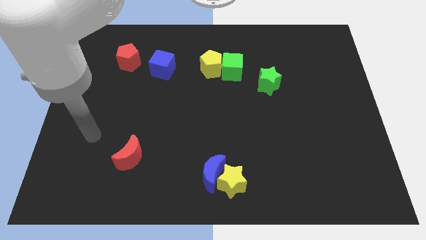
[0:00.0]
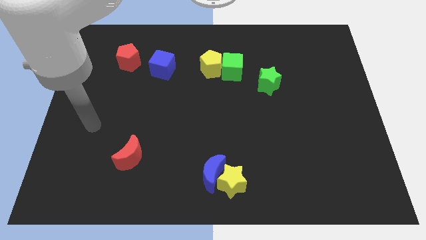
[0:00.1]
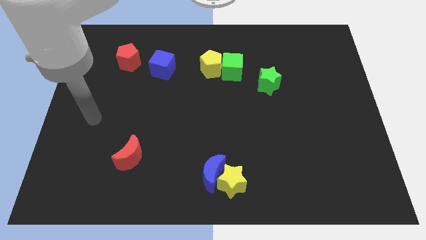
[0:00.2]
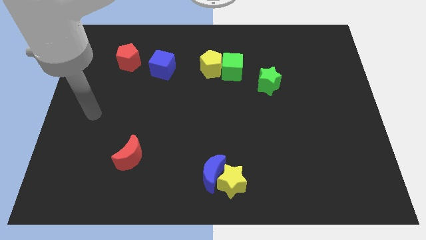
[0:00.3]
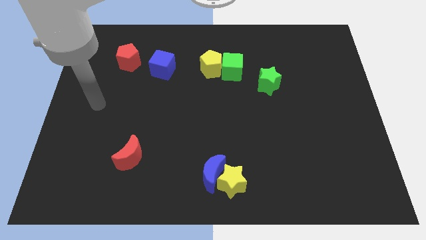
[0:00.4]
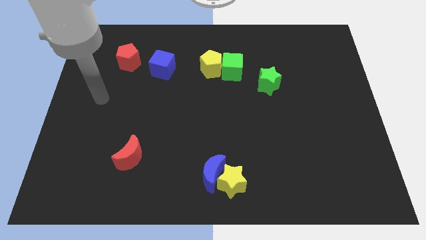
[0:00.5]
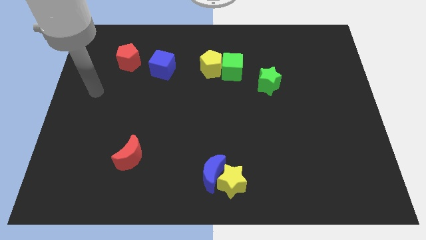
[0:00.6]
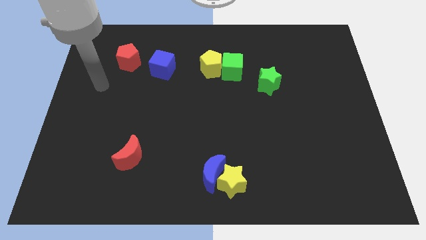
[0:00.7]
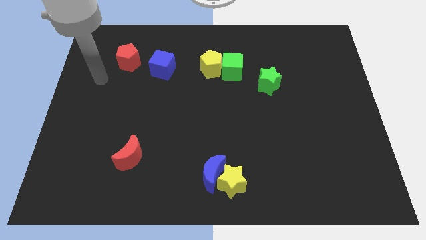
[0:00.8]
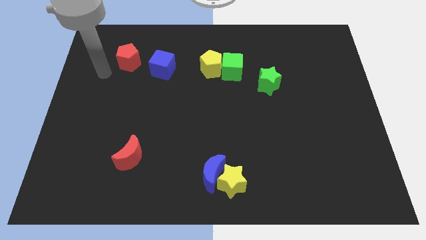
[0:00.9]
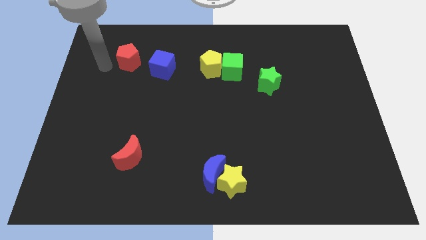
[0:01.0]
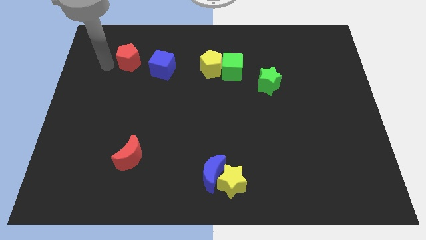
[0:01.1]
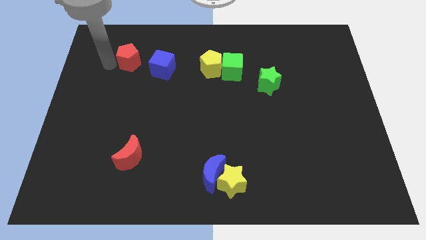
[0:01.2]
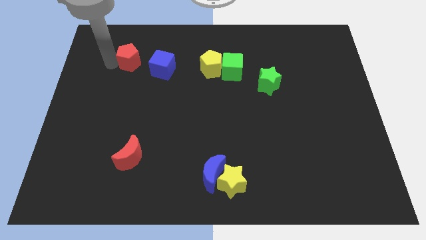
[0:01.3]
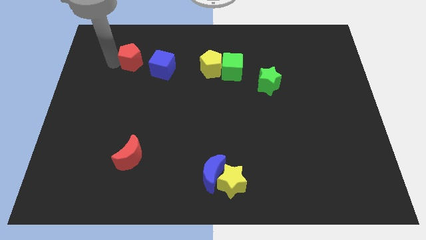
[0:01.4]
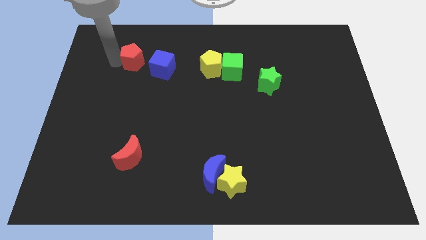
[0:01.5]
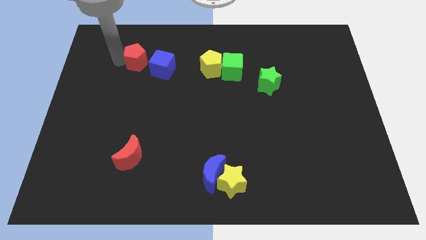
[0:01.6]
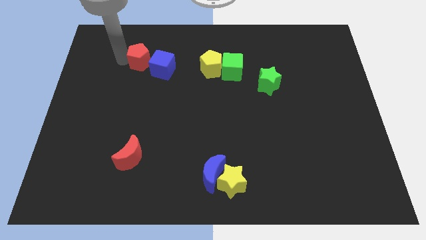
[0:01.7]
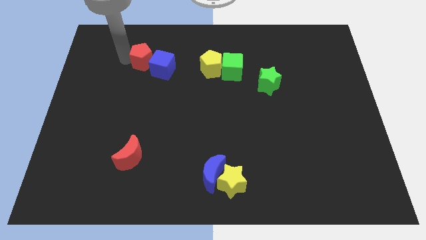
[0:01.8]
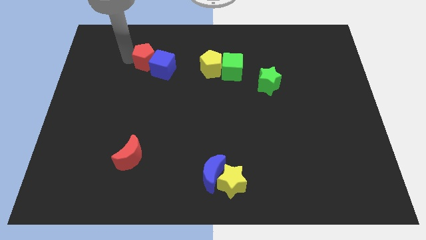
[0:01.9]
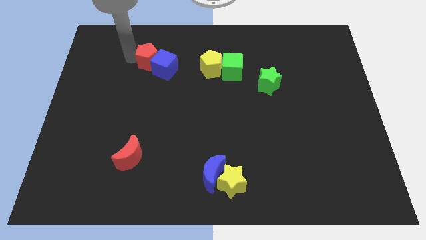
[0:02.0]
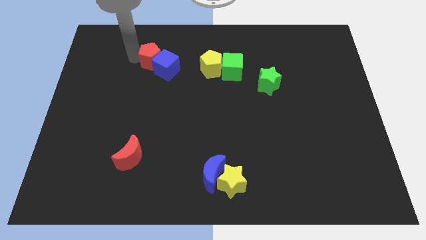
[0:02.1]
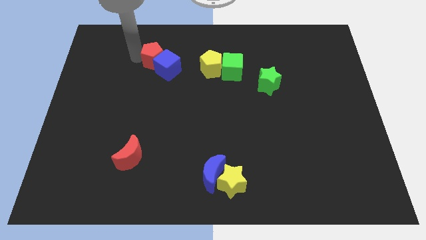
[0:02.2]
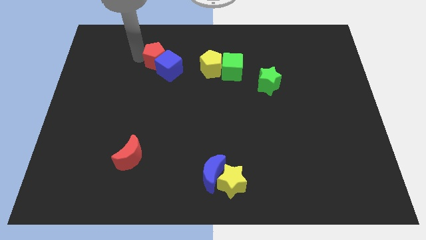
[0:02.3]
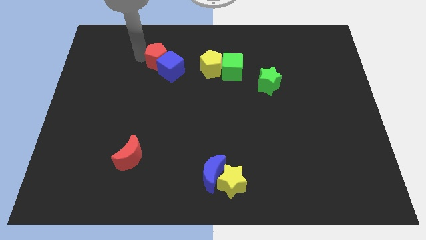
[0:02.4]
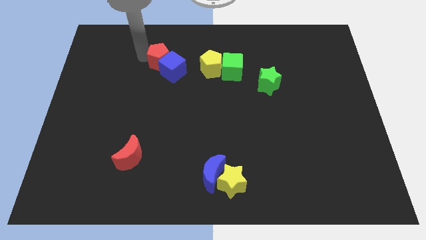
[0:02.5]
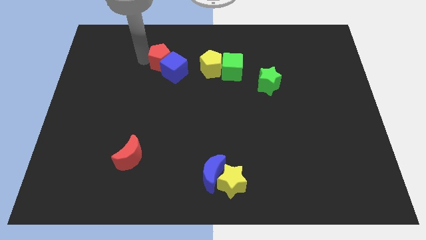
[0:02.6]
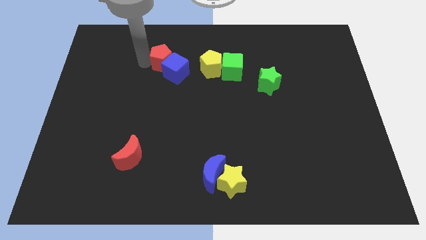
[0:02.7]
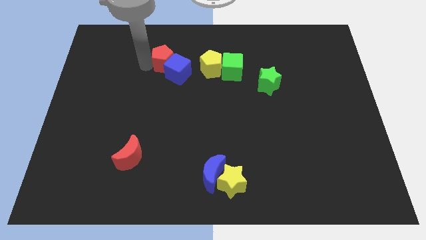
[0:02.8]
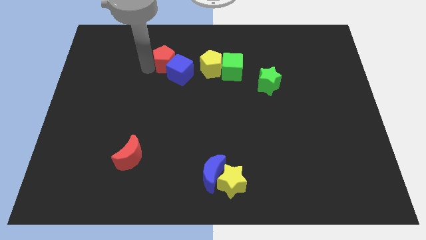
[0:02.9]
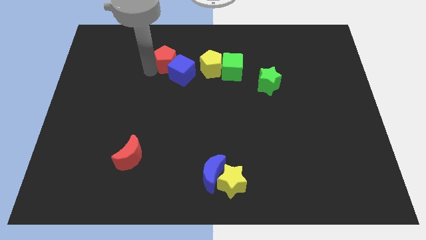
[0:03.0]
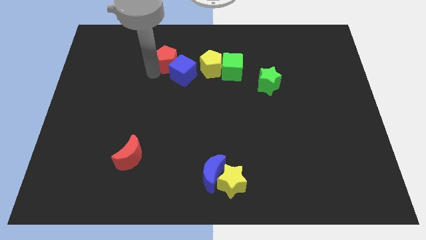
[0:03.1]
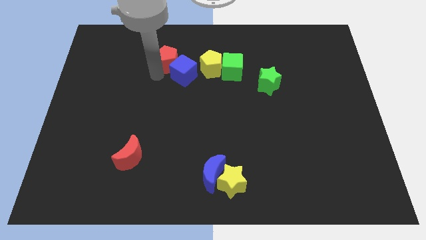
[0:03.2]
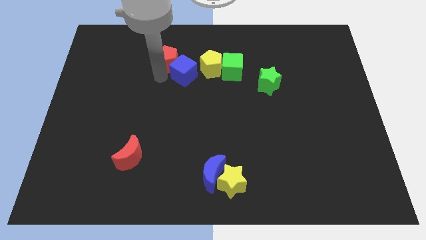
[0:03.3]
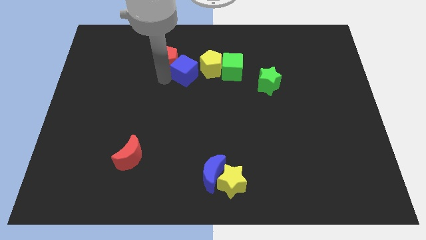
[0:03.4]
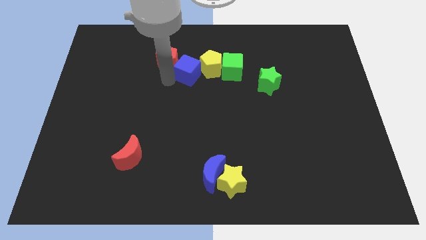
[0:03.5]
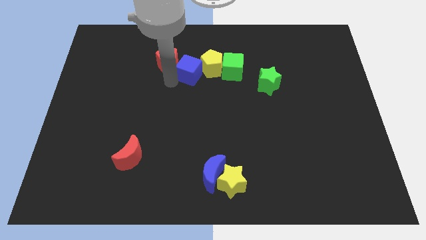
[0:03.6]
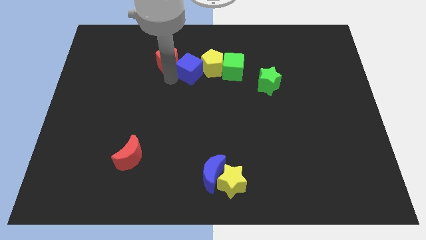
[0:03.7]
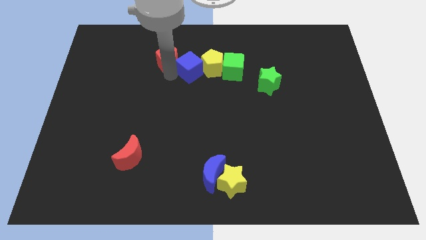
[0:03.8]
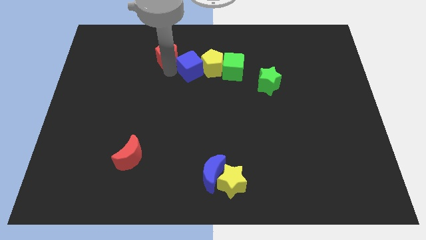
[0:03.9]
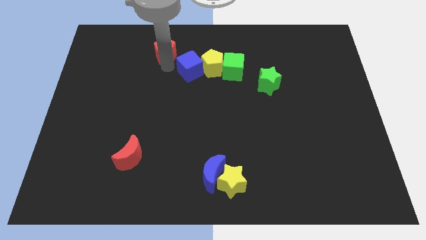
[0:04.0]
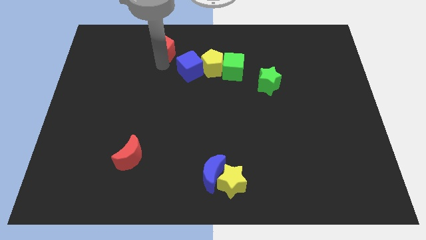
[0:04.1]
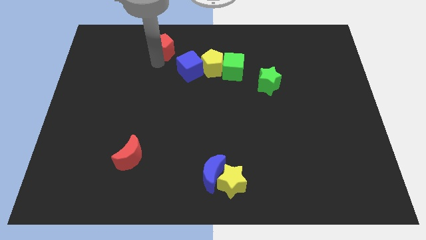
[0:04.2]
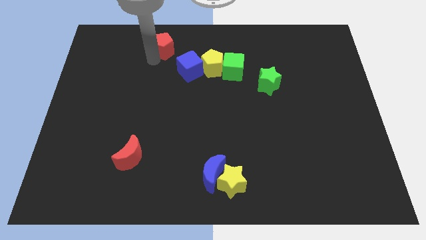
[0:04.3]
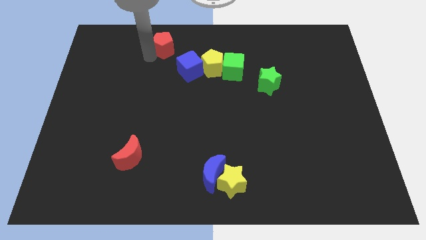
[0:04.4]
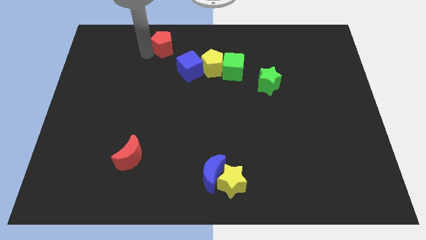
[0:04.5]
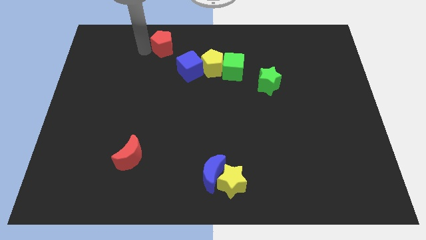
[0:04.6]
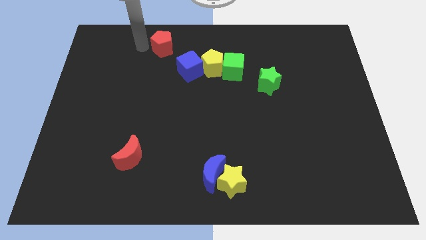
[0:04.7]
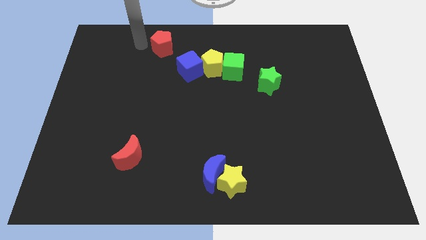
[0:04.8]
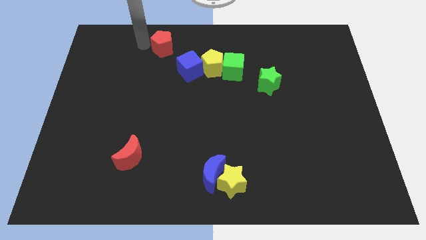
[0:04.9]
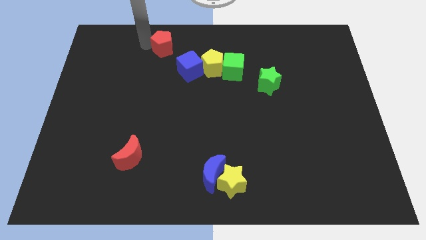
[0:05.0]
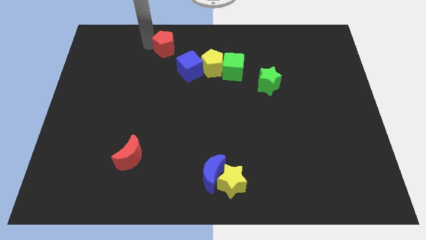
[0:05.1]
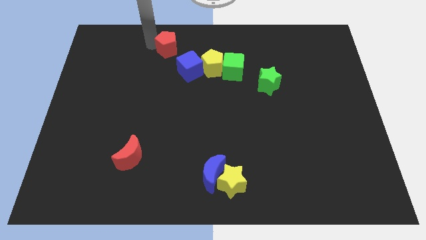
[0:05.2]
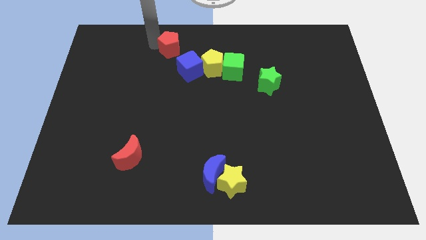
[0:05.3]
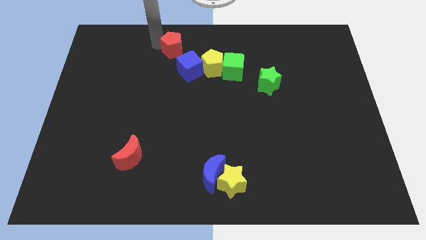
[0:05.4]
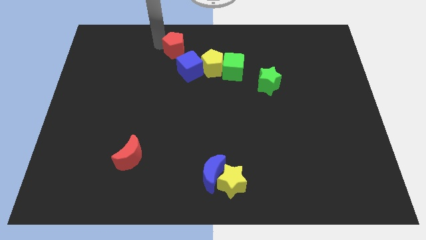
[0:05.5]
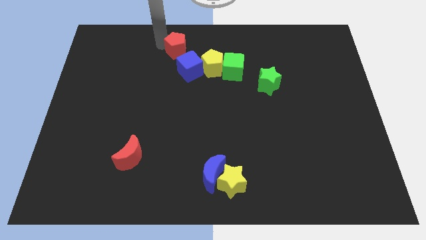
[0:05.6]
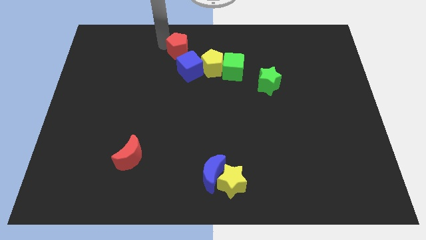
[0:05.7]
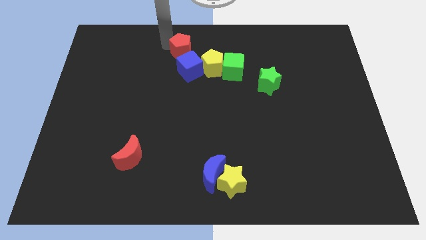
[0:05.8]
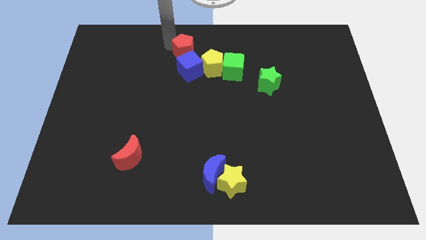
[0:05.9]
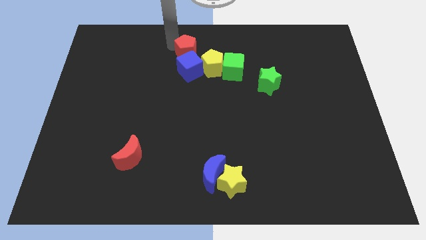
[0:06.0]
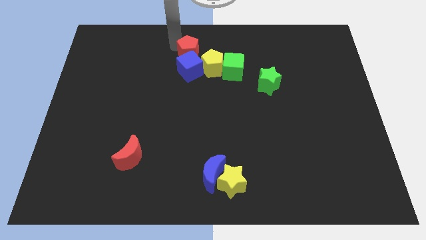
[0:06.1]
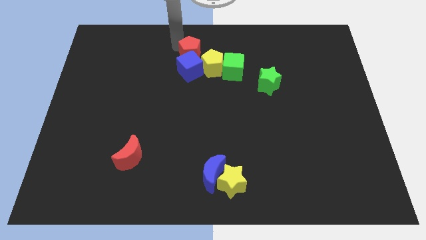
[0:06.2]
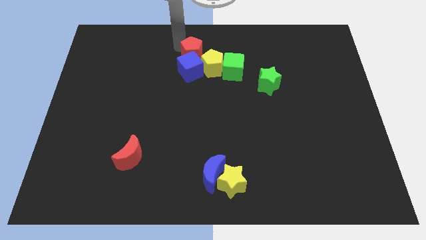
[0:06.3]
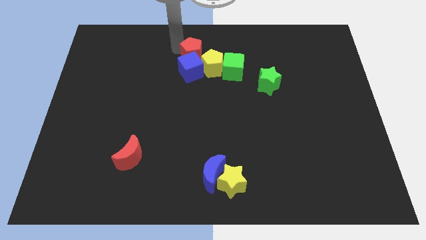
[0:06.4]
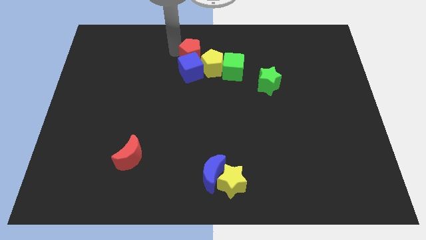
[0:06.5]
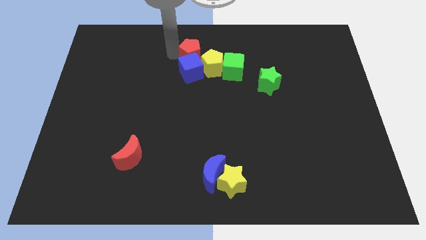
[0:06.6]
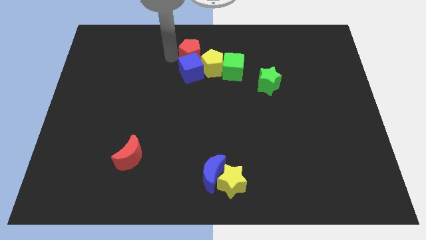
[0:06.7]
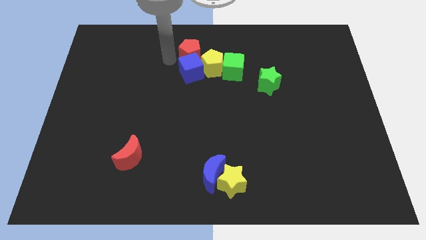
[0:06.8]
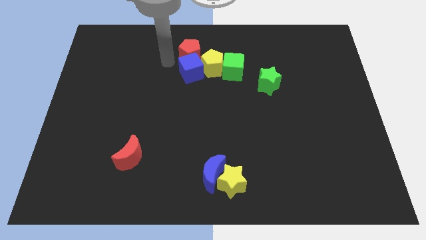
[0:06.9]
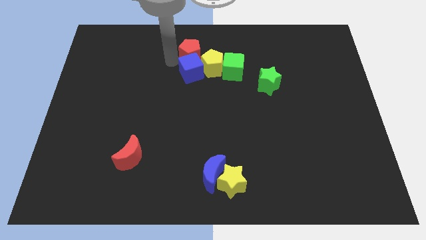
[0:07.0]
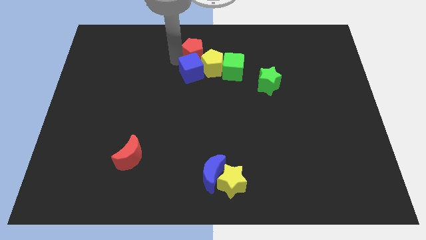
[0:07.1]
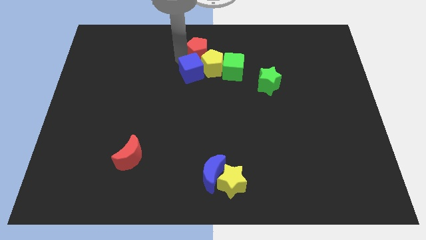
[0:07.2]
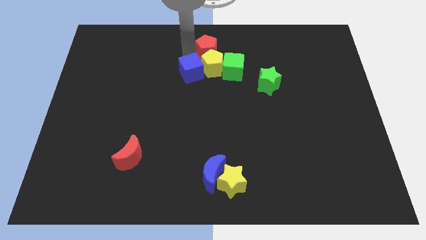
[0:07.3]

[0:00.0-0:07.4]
slide the red pentagon to the right

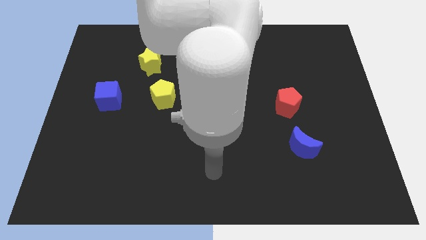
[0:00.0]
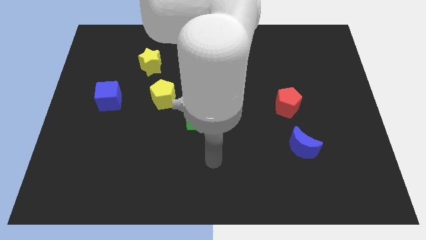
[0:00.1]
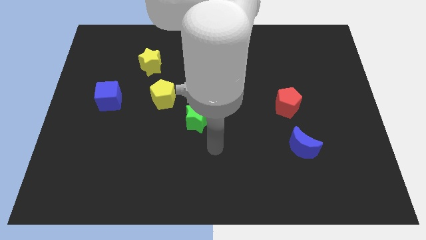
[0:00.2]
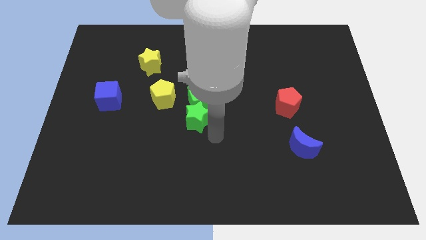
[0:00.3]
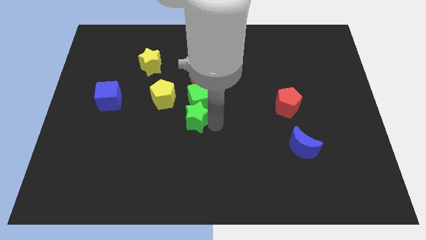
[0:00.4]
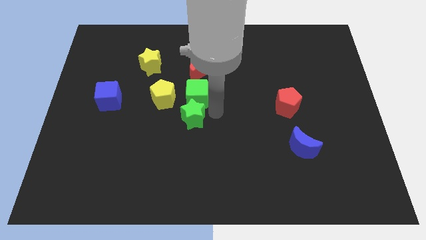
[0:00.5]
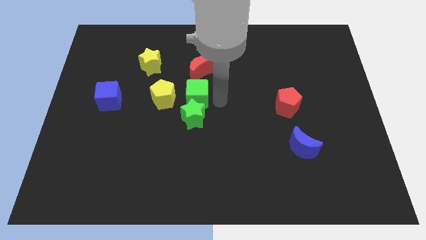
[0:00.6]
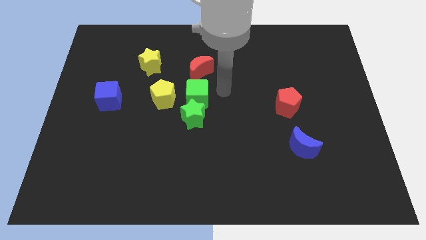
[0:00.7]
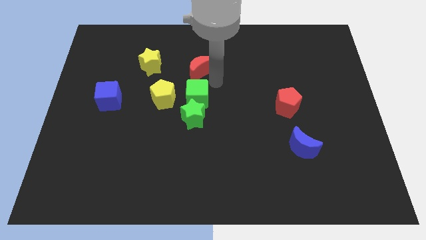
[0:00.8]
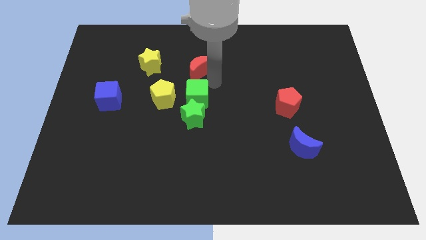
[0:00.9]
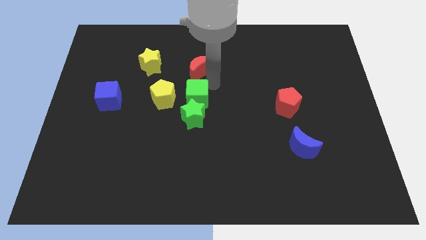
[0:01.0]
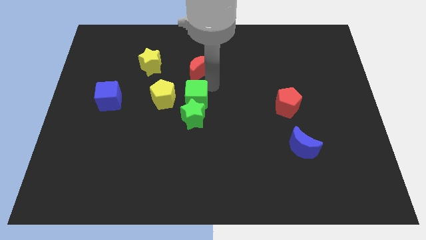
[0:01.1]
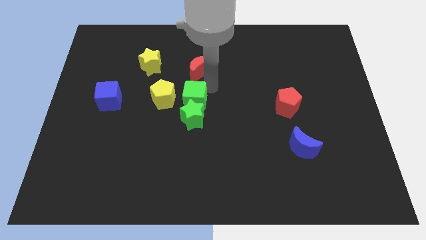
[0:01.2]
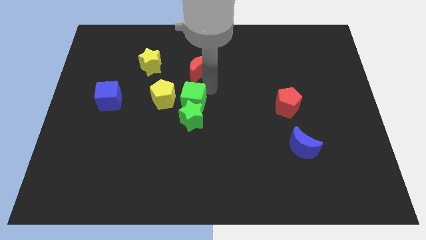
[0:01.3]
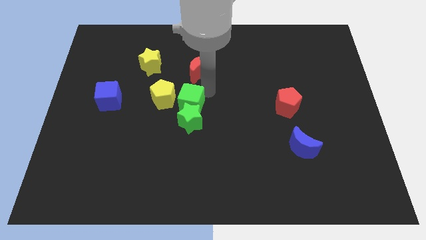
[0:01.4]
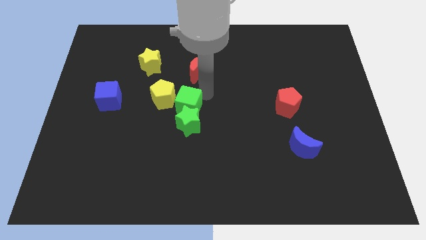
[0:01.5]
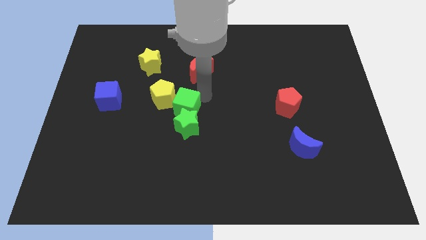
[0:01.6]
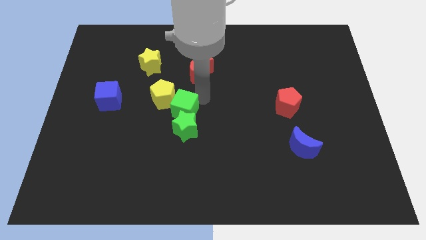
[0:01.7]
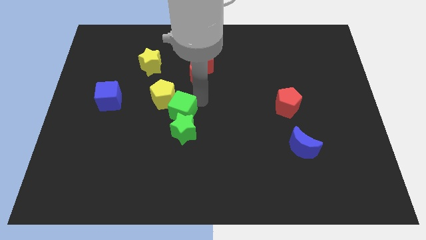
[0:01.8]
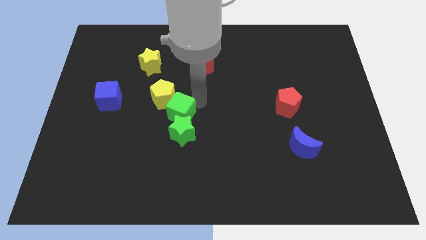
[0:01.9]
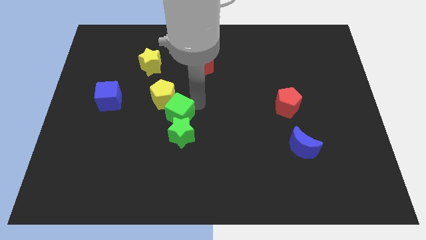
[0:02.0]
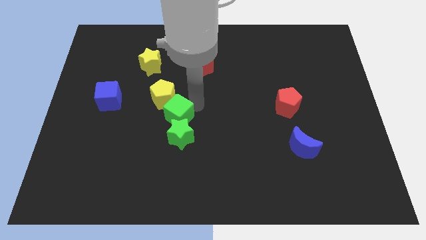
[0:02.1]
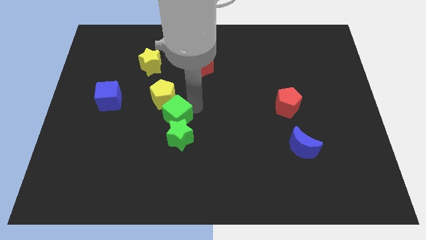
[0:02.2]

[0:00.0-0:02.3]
move the green cube down and to the left diagonally slightly
